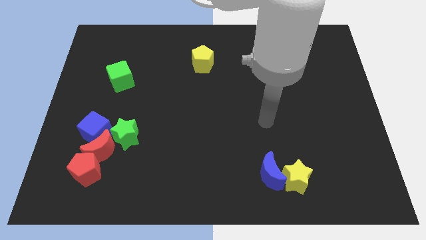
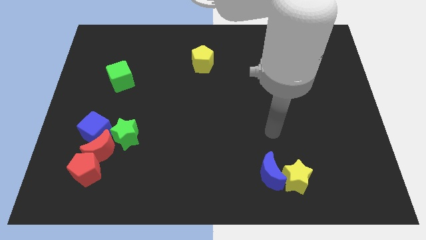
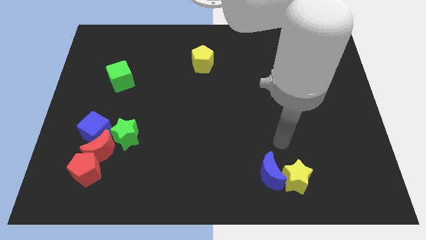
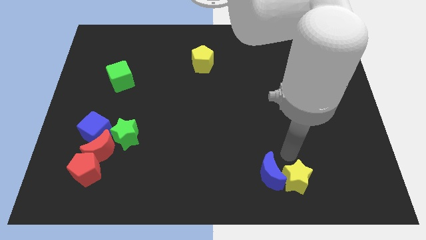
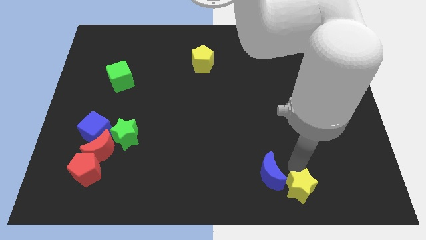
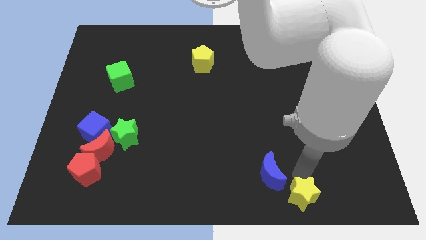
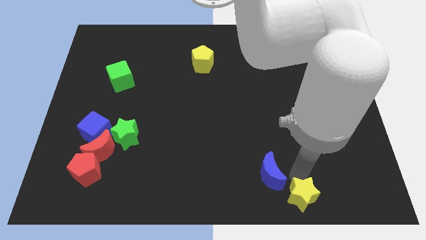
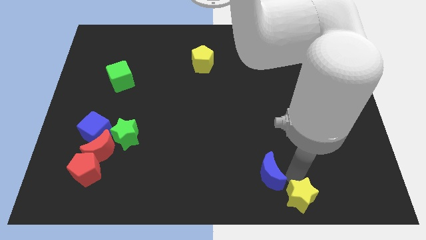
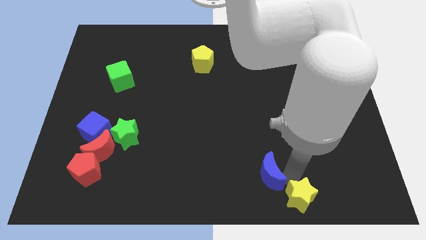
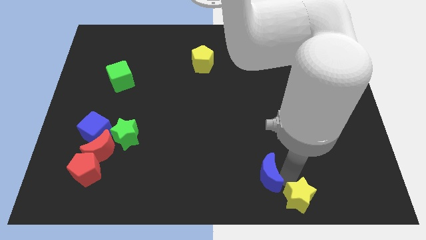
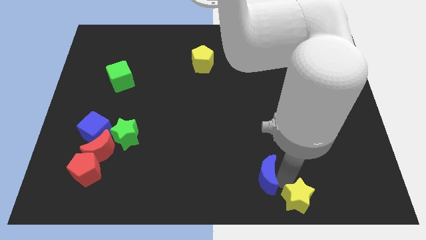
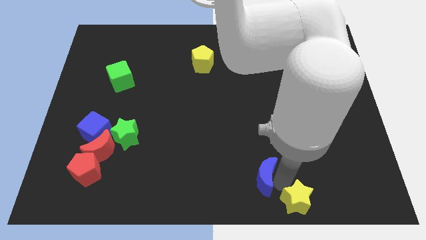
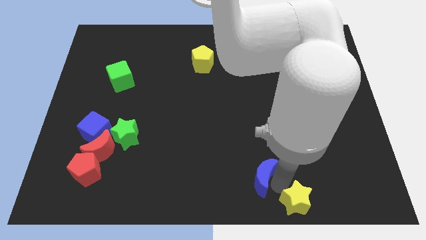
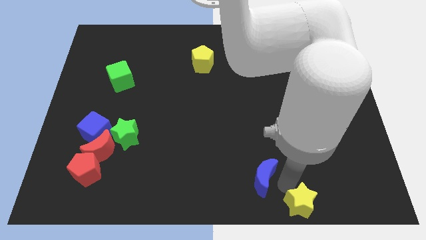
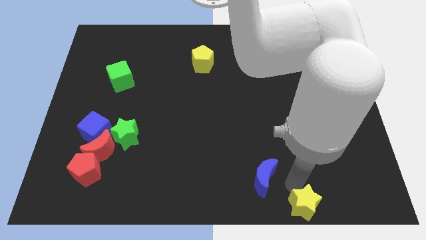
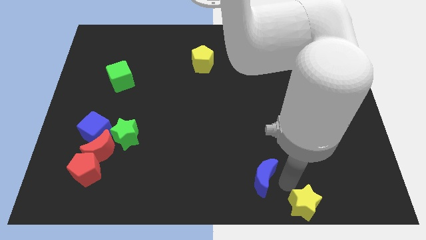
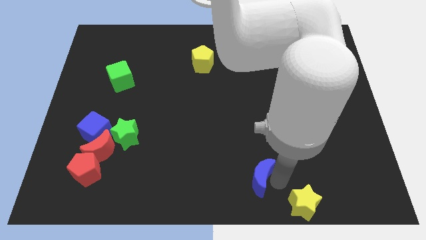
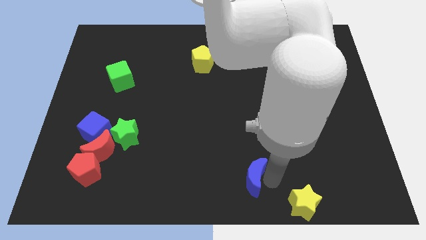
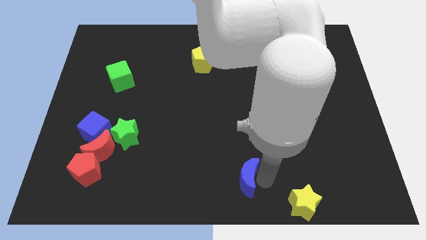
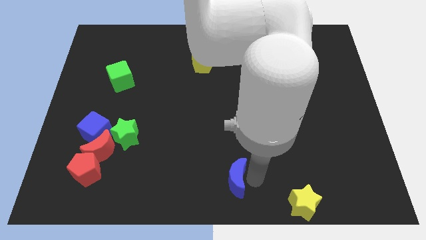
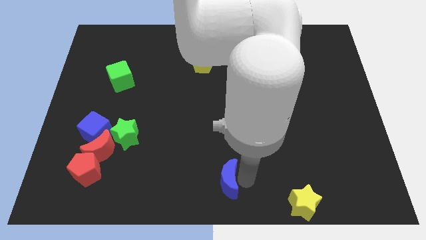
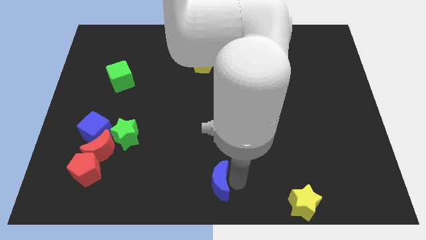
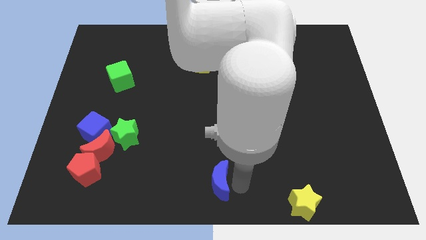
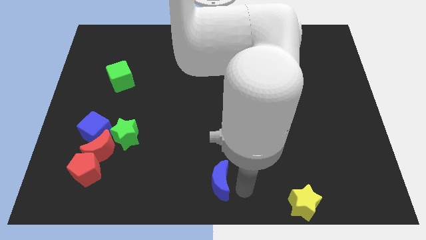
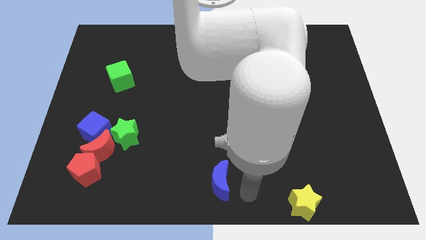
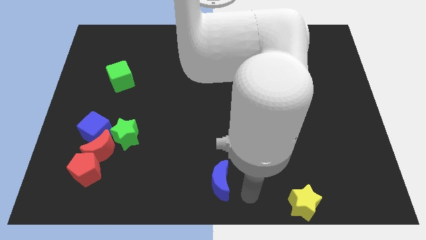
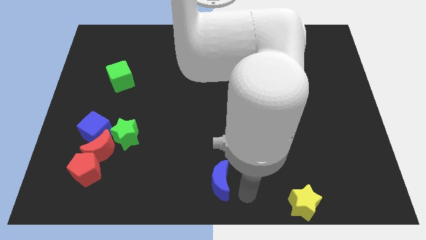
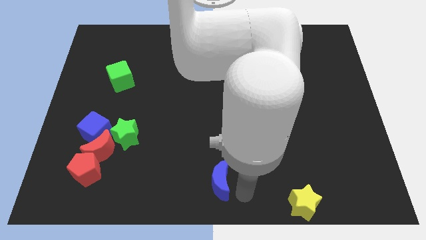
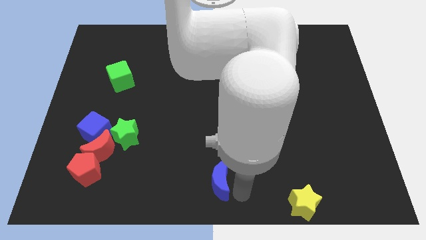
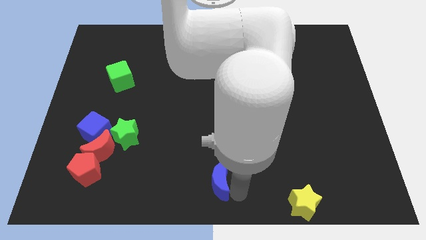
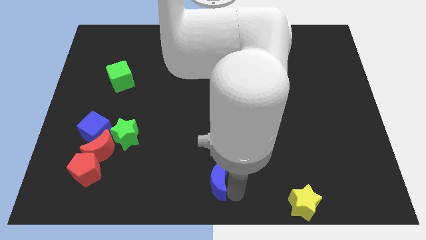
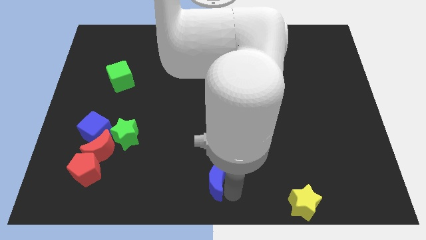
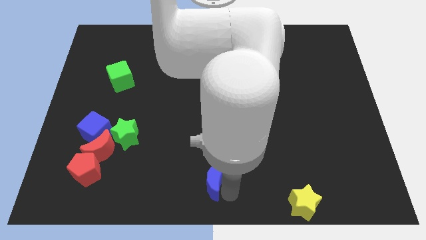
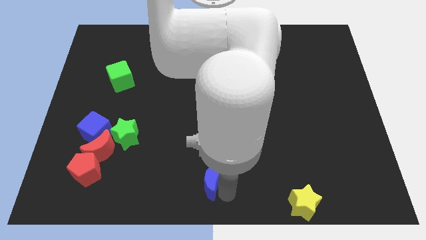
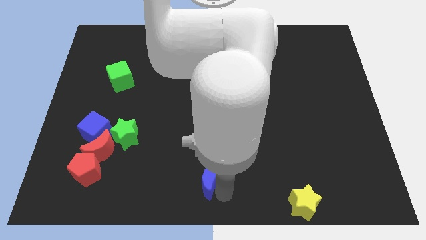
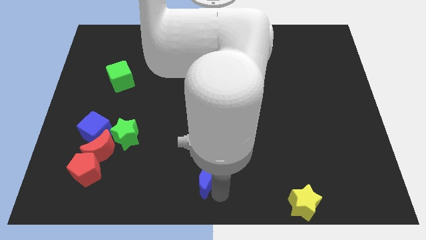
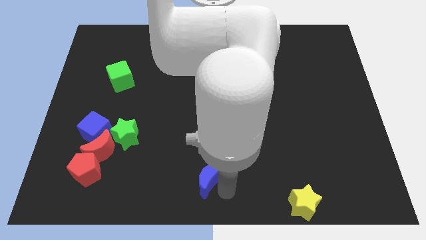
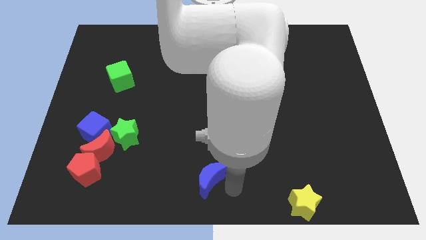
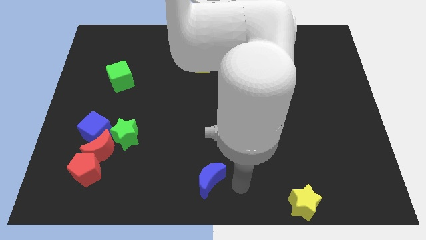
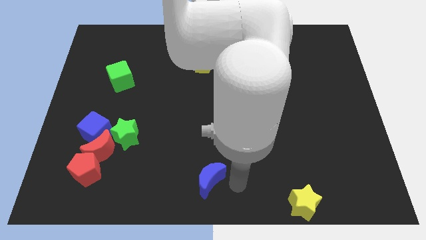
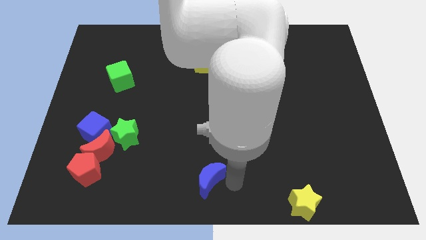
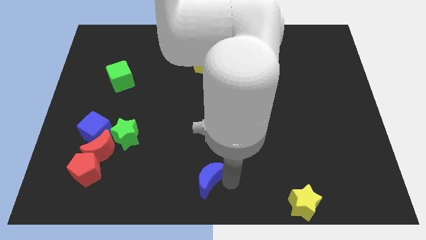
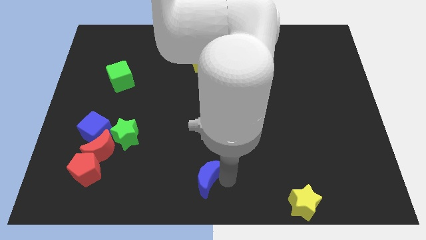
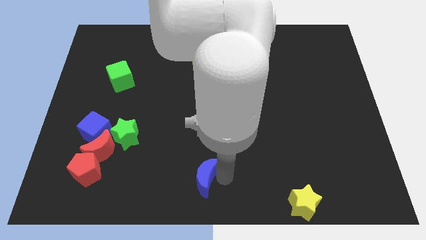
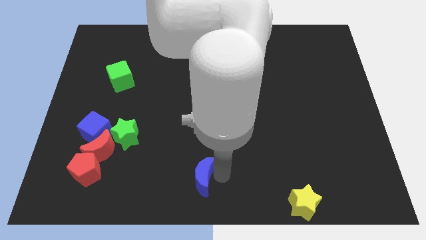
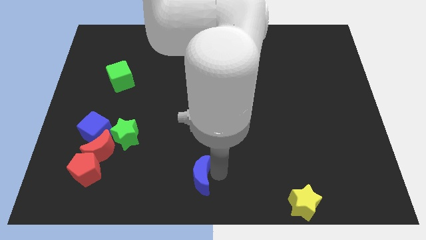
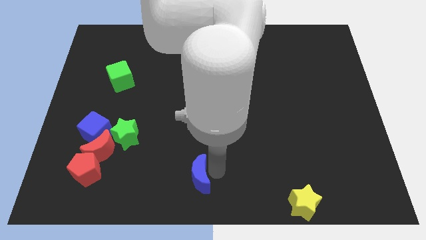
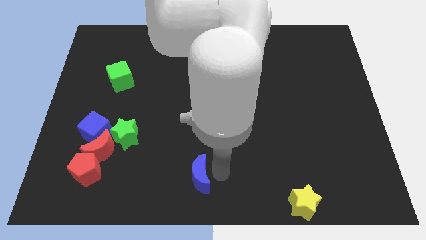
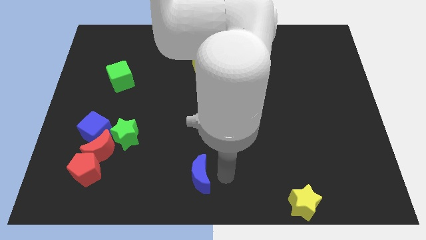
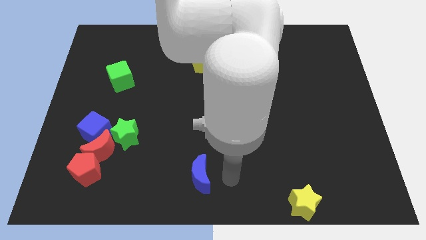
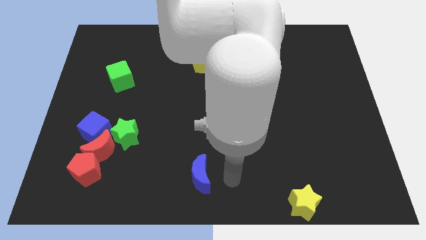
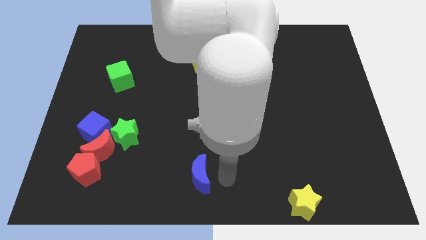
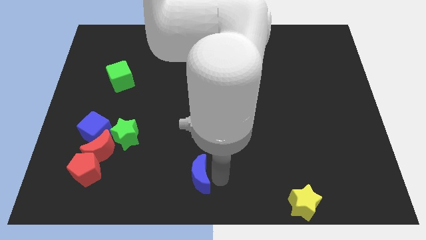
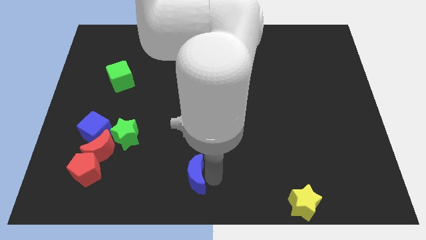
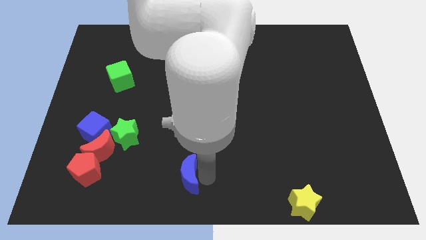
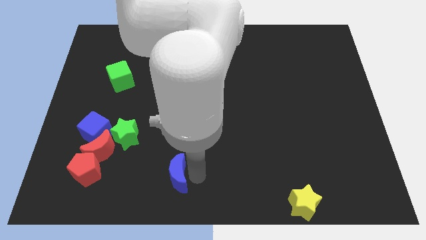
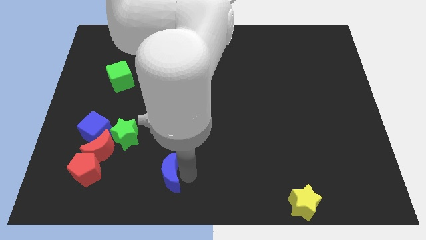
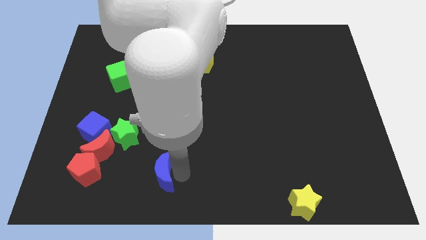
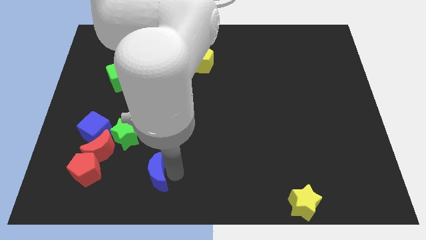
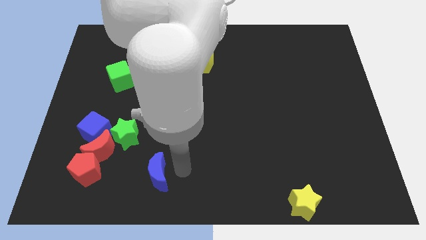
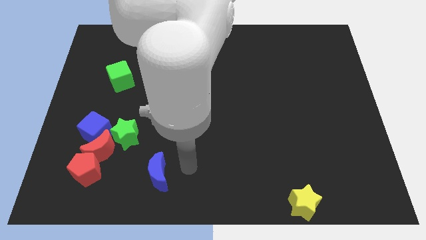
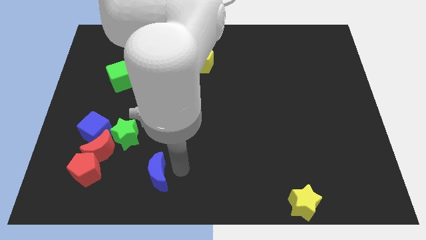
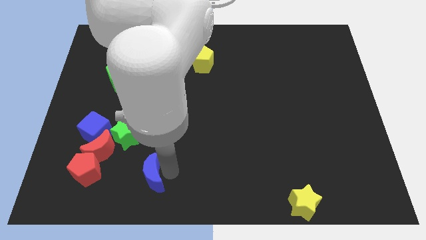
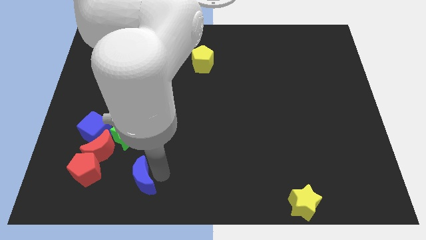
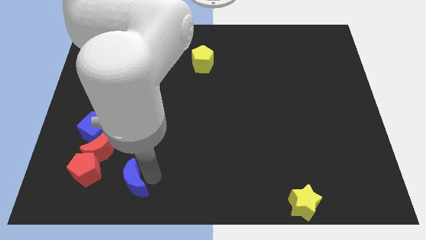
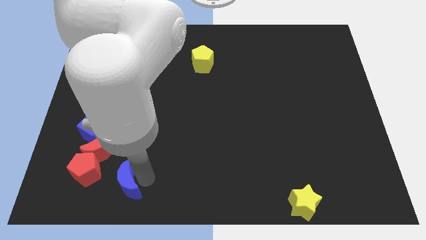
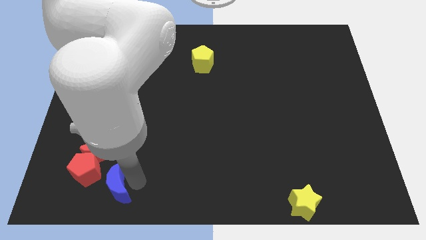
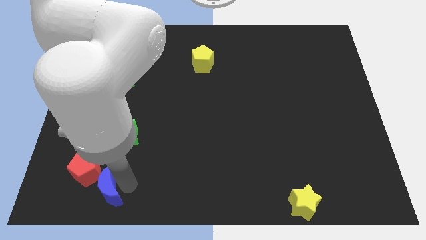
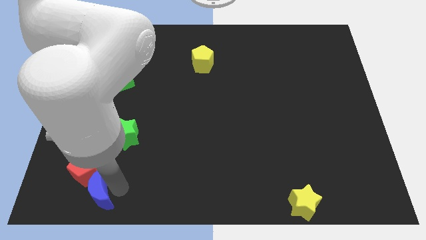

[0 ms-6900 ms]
push the blue moon to the bottom of the blue cube
